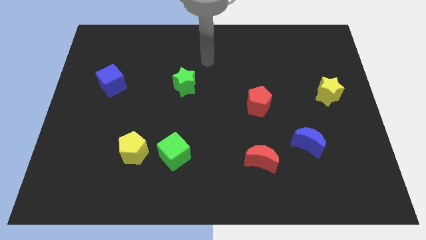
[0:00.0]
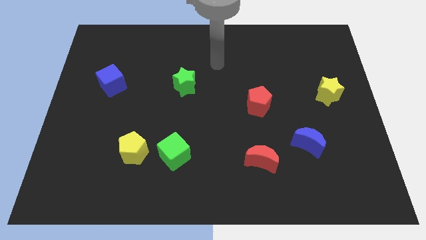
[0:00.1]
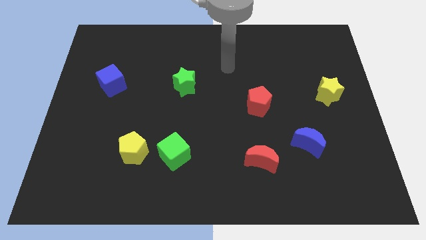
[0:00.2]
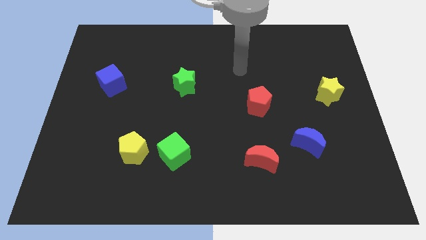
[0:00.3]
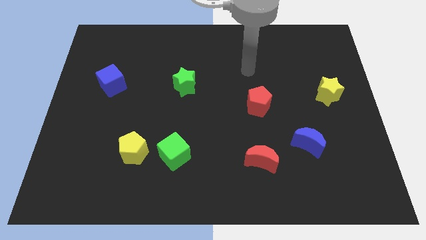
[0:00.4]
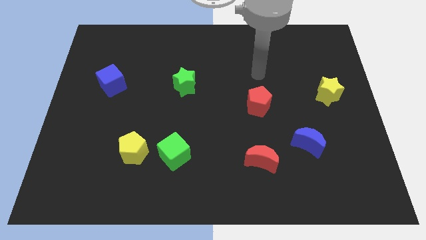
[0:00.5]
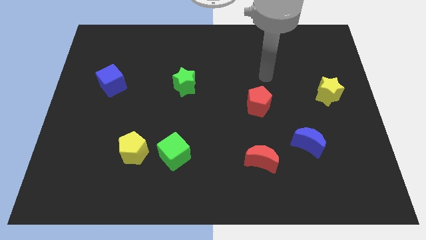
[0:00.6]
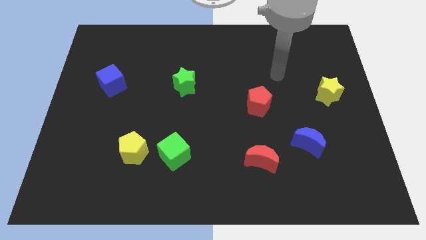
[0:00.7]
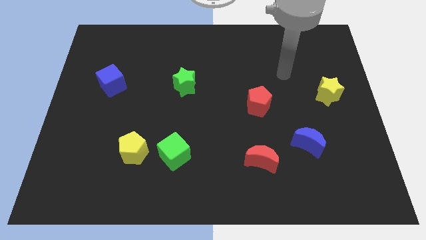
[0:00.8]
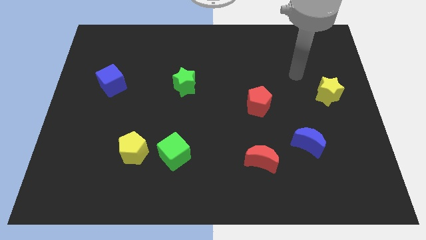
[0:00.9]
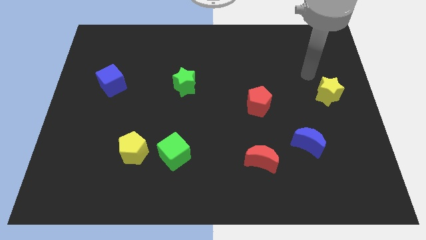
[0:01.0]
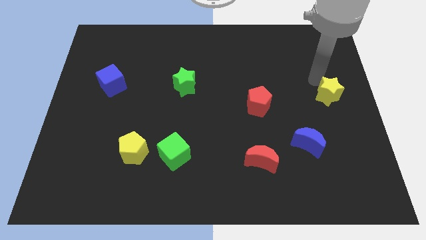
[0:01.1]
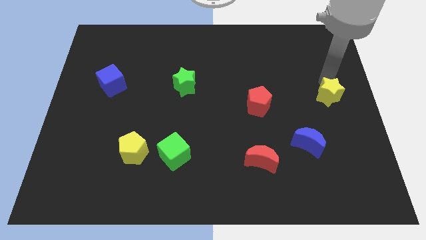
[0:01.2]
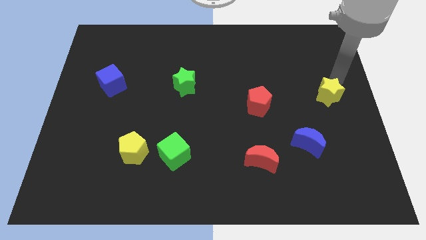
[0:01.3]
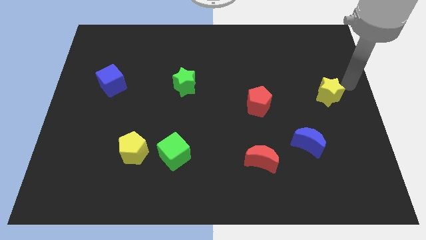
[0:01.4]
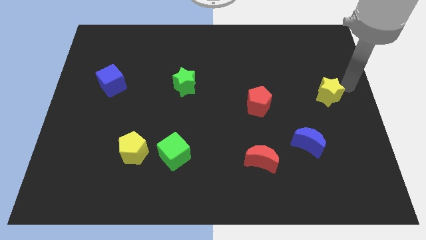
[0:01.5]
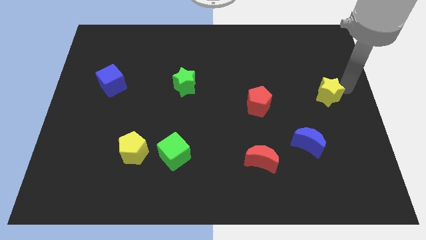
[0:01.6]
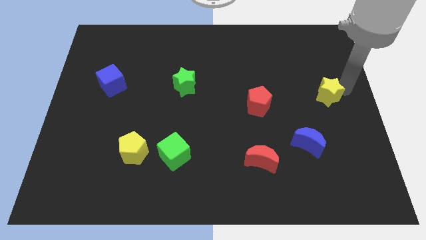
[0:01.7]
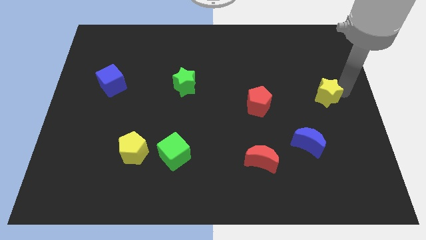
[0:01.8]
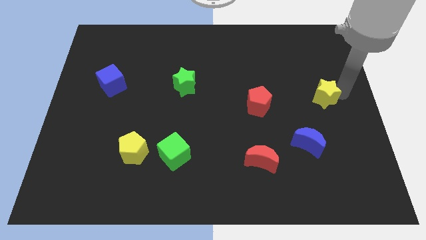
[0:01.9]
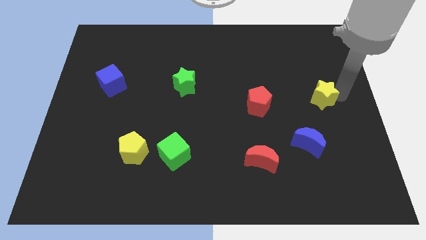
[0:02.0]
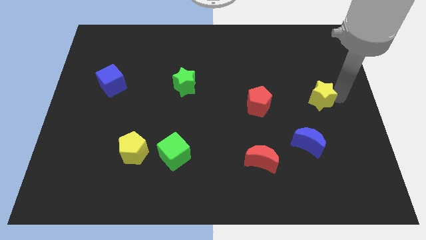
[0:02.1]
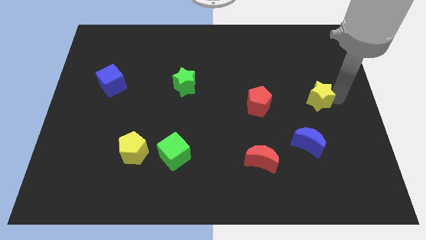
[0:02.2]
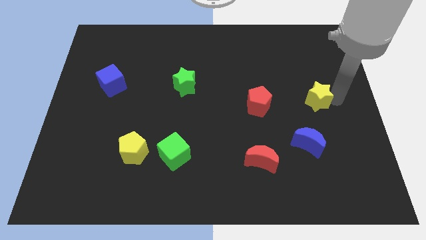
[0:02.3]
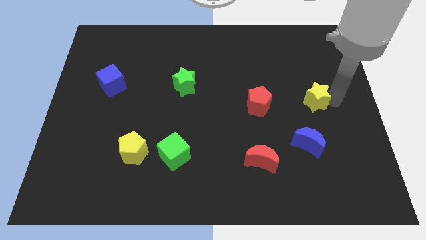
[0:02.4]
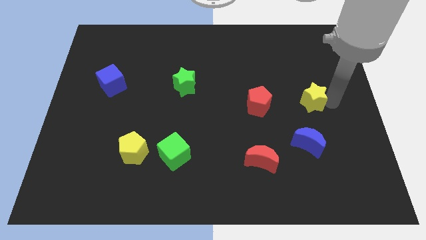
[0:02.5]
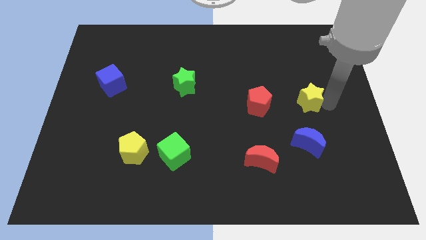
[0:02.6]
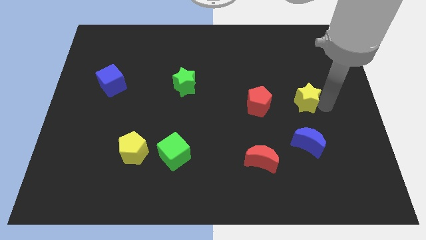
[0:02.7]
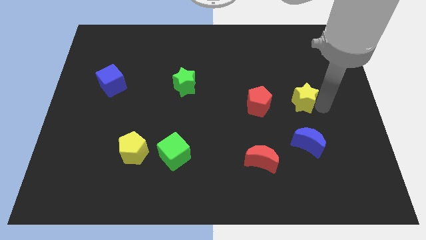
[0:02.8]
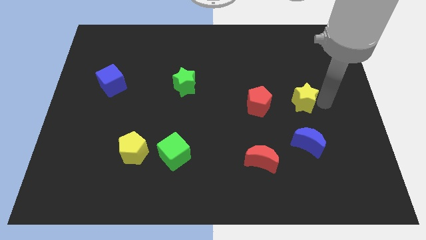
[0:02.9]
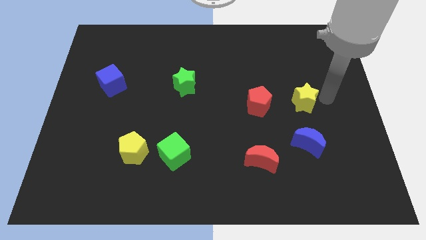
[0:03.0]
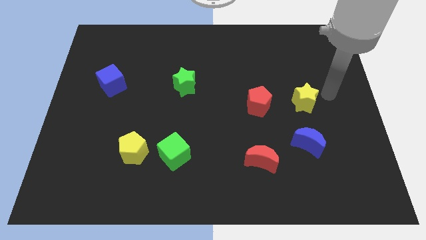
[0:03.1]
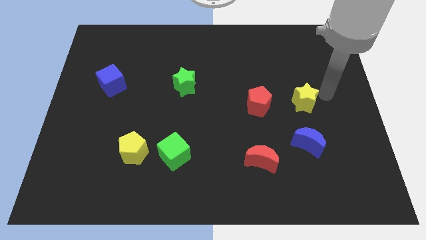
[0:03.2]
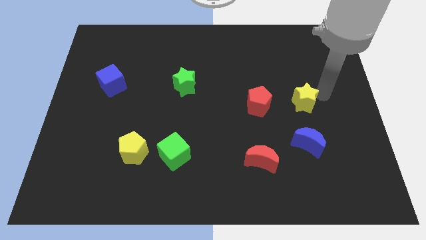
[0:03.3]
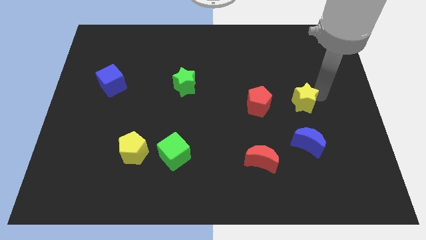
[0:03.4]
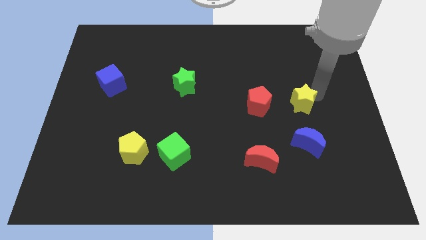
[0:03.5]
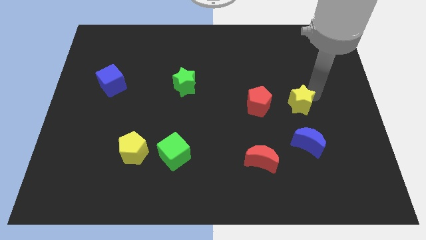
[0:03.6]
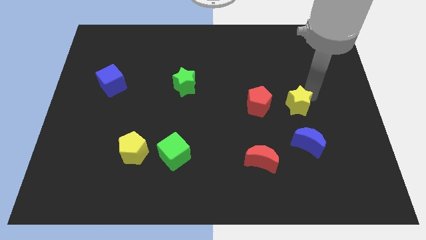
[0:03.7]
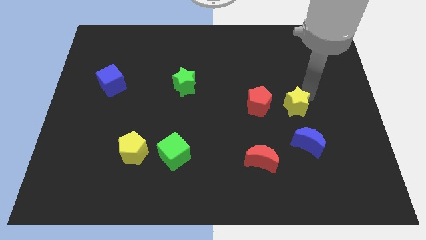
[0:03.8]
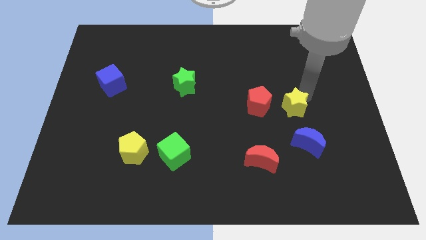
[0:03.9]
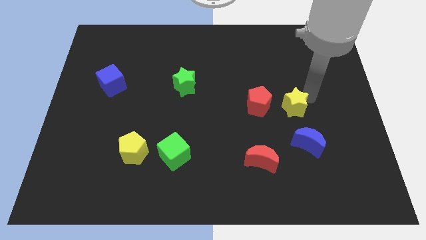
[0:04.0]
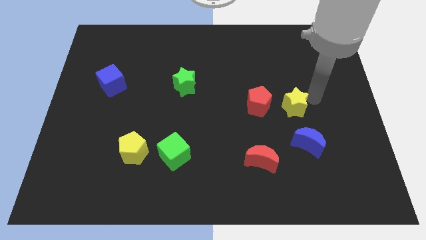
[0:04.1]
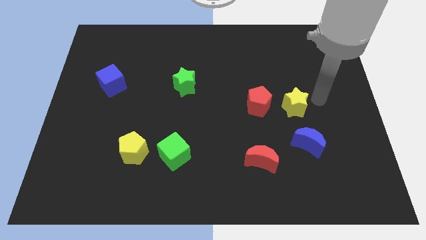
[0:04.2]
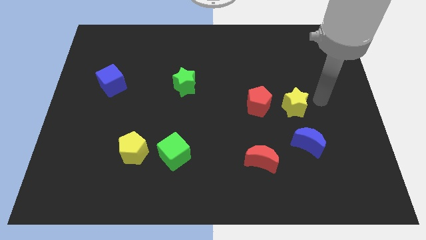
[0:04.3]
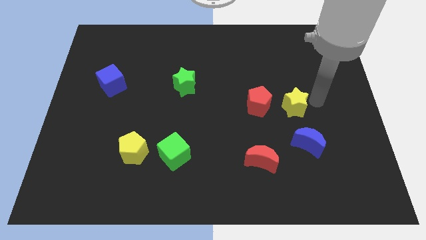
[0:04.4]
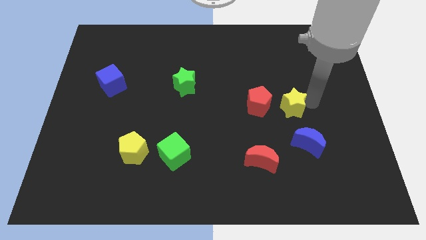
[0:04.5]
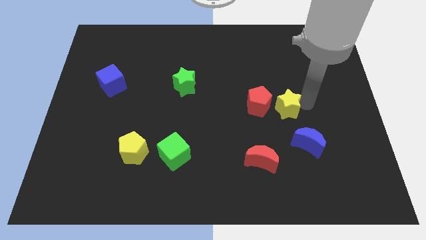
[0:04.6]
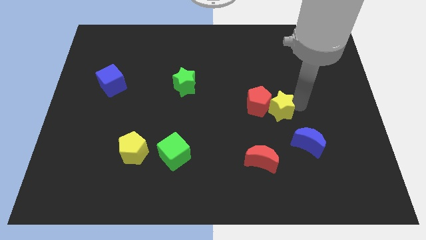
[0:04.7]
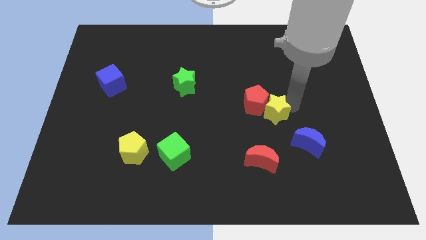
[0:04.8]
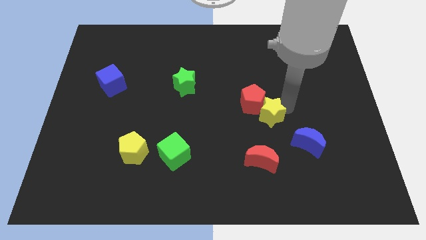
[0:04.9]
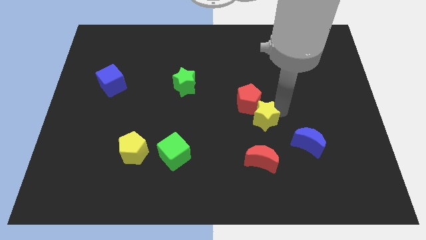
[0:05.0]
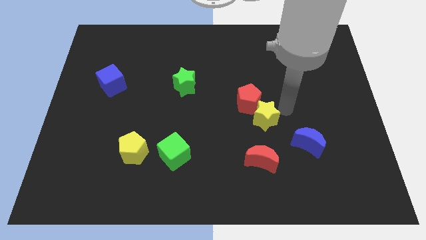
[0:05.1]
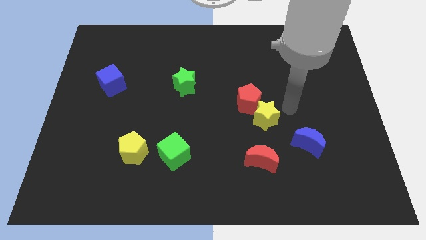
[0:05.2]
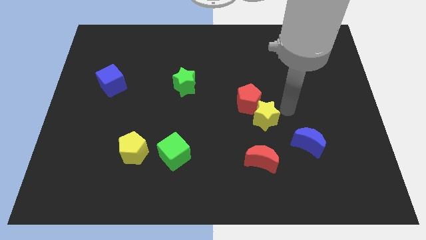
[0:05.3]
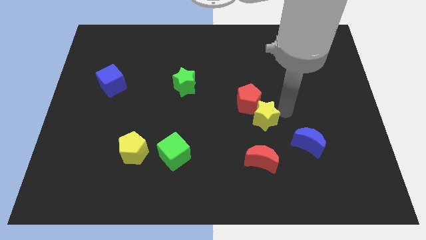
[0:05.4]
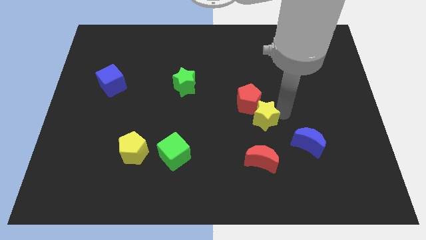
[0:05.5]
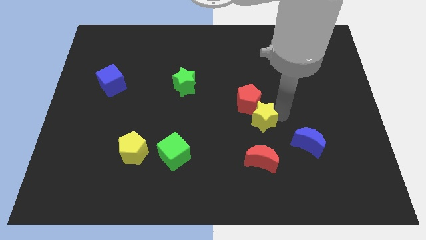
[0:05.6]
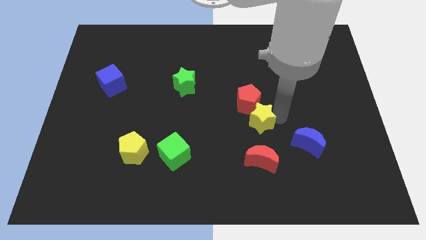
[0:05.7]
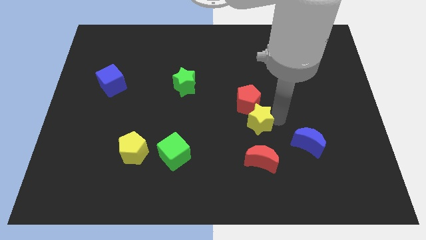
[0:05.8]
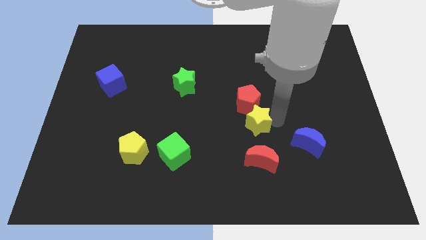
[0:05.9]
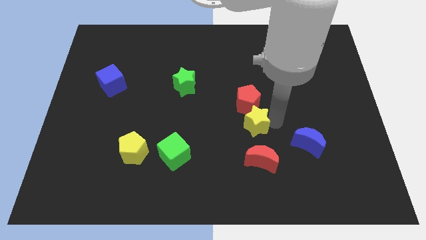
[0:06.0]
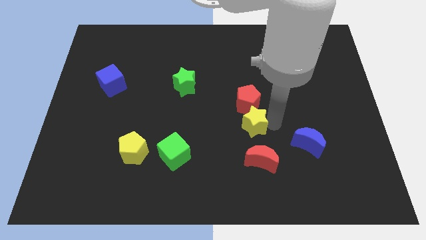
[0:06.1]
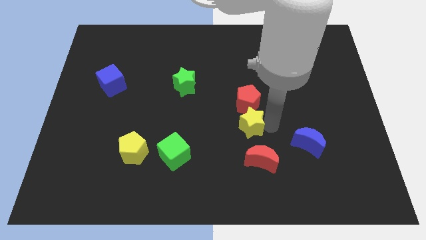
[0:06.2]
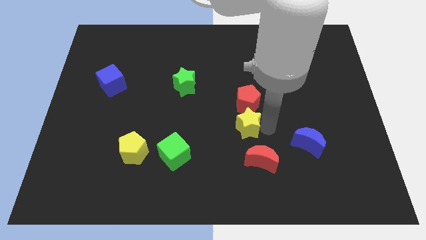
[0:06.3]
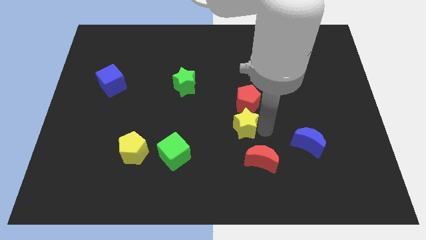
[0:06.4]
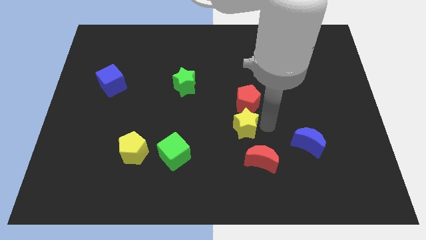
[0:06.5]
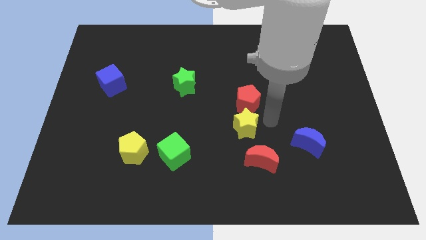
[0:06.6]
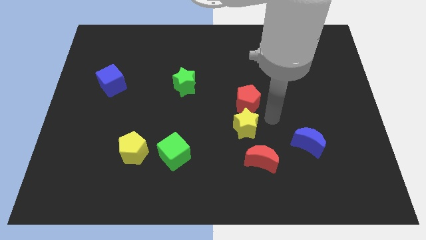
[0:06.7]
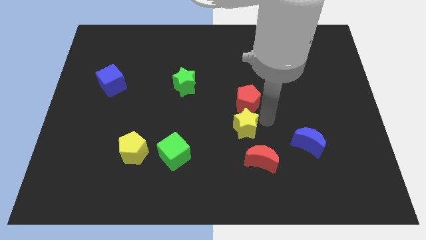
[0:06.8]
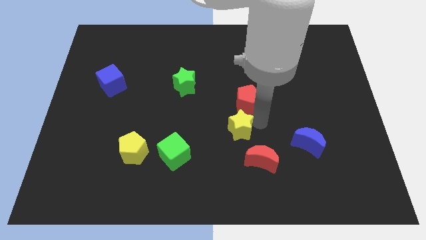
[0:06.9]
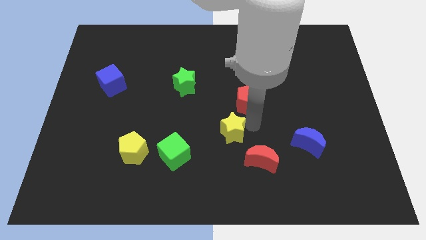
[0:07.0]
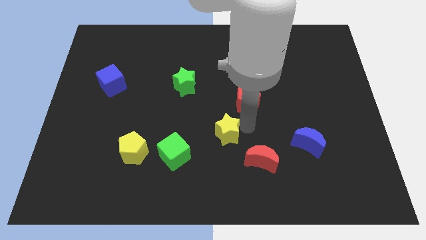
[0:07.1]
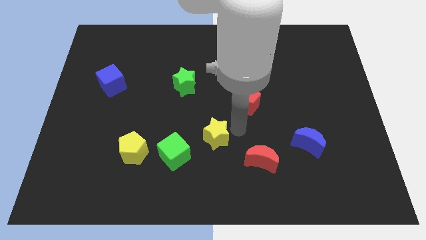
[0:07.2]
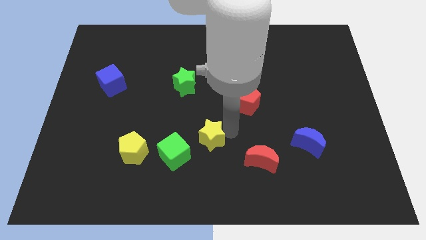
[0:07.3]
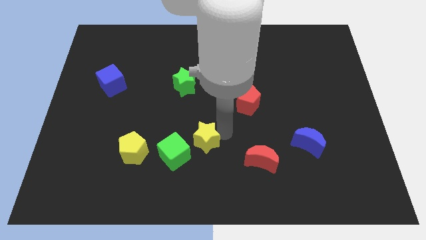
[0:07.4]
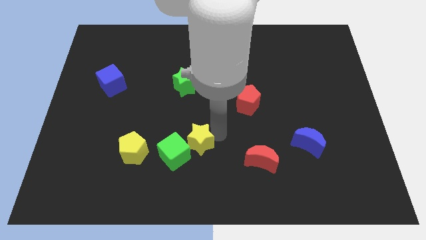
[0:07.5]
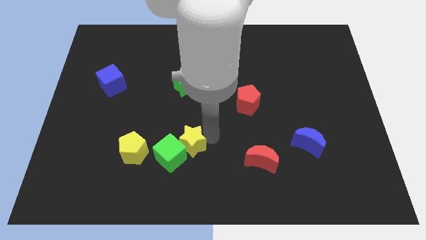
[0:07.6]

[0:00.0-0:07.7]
put the yellow star close to the green cube
